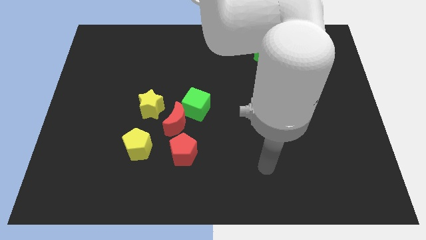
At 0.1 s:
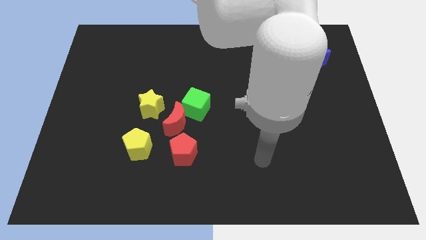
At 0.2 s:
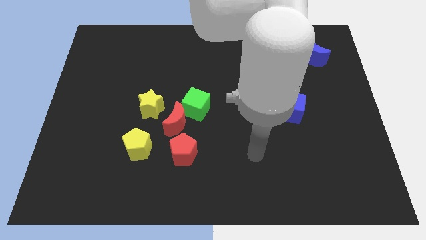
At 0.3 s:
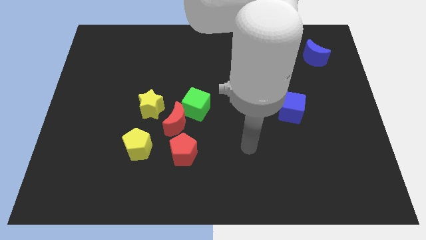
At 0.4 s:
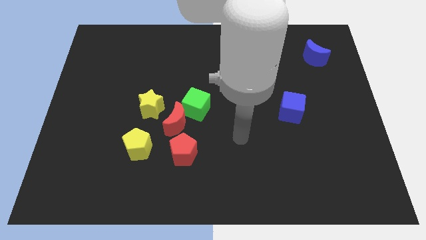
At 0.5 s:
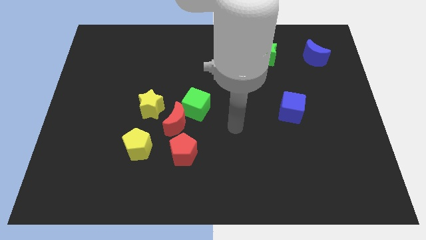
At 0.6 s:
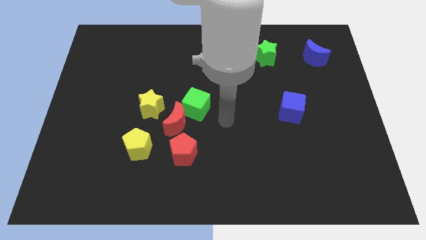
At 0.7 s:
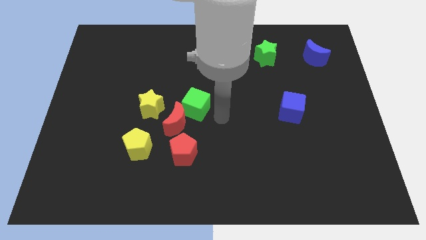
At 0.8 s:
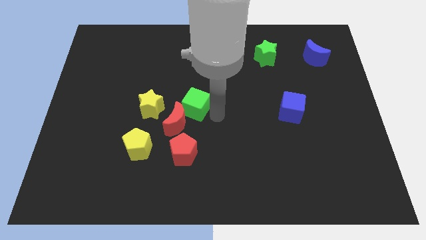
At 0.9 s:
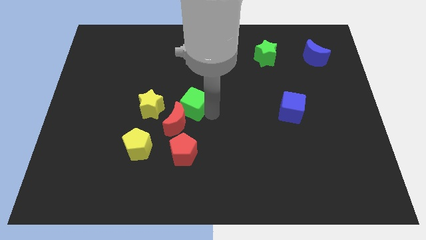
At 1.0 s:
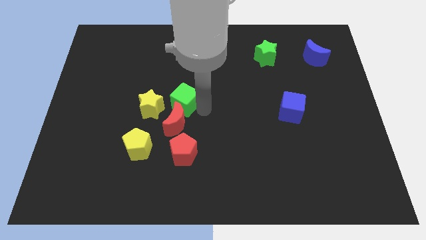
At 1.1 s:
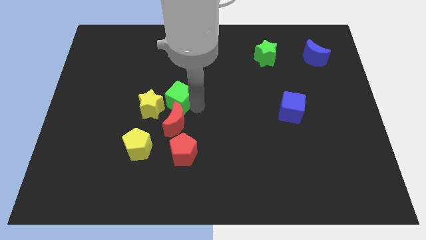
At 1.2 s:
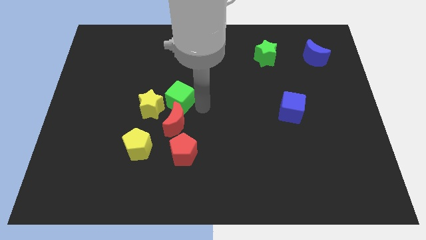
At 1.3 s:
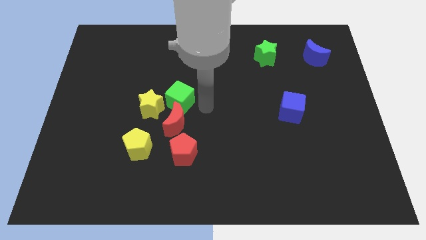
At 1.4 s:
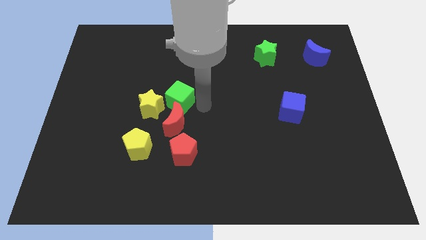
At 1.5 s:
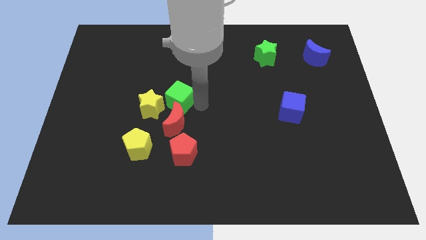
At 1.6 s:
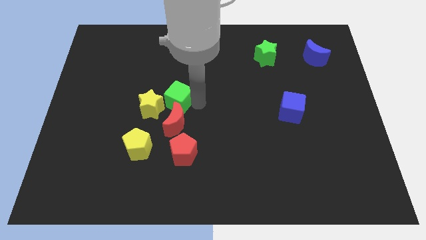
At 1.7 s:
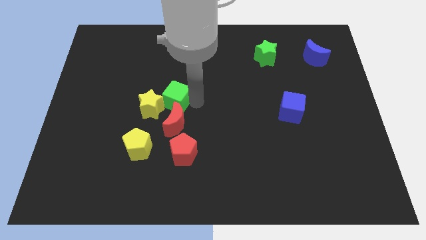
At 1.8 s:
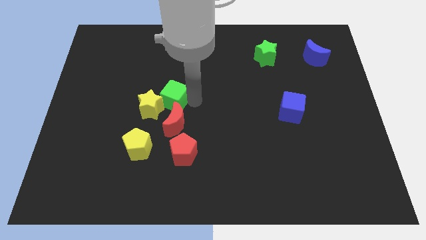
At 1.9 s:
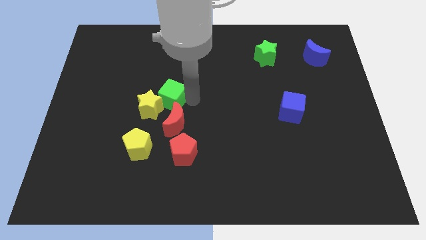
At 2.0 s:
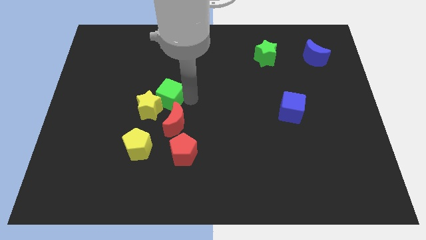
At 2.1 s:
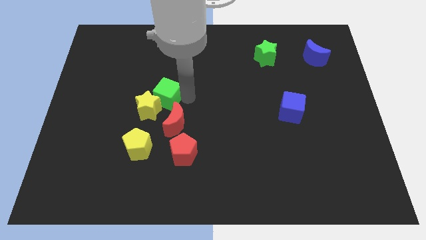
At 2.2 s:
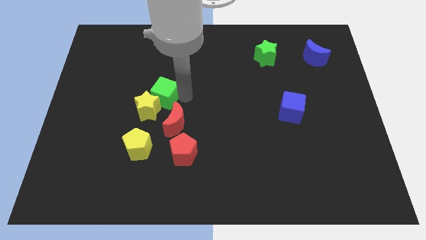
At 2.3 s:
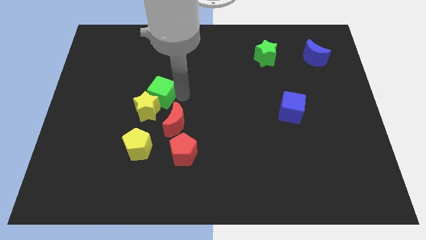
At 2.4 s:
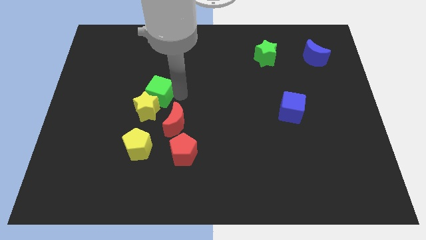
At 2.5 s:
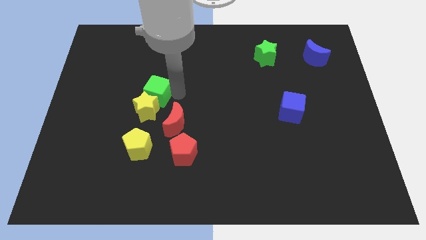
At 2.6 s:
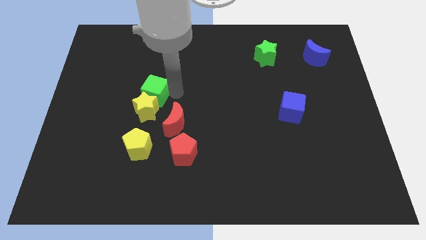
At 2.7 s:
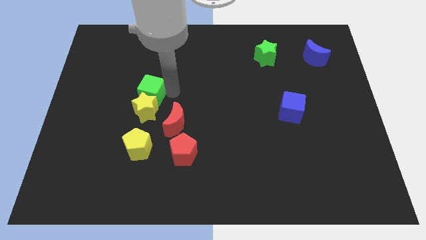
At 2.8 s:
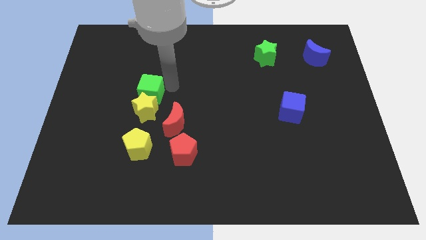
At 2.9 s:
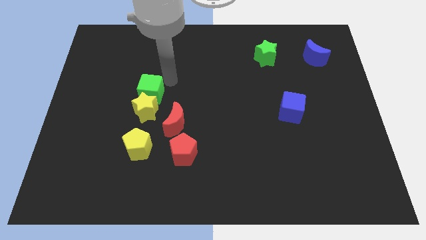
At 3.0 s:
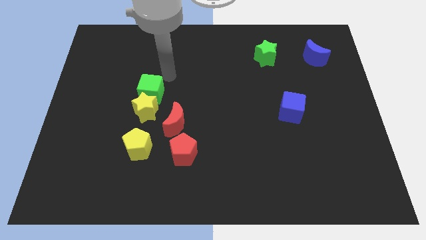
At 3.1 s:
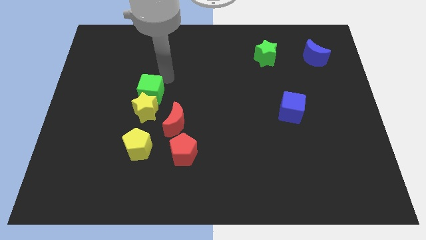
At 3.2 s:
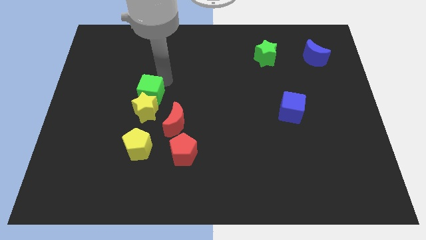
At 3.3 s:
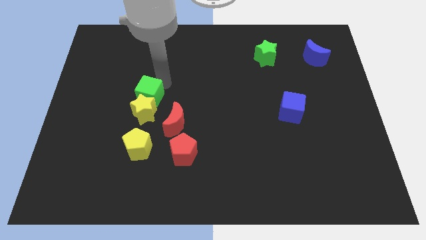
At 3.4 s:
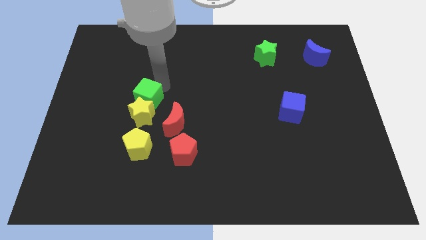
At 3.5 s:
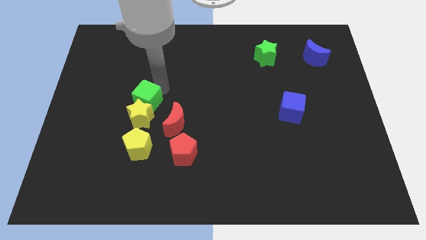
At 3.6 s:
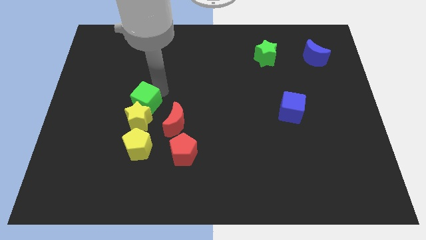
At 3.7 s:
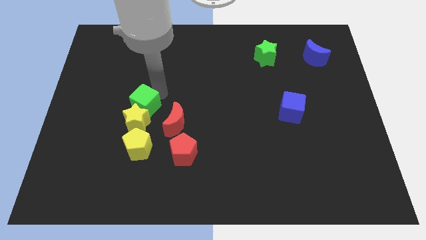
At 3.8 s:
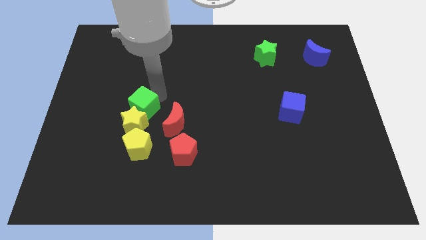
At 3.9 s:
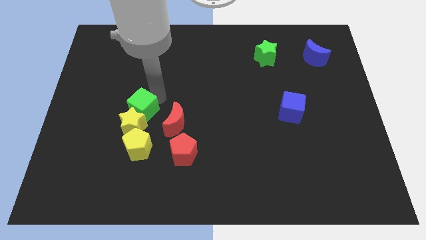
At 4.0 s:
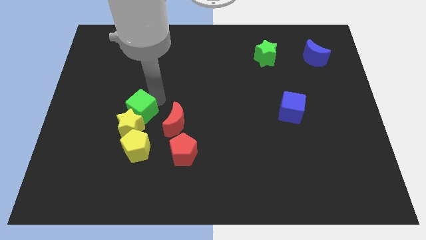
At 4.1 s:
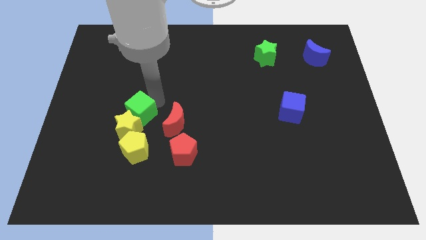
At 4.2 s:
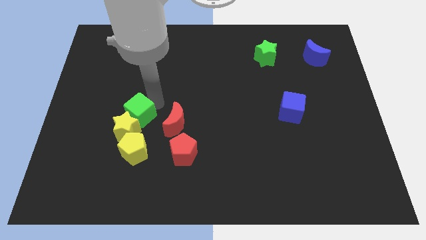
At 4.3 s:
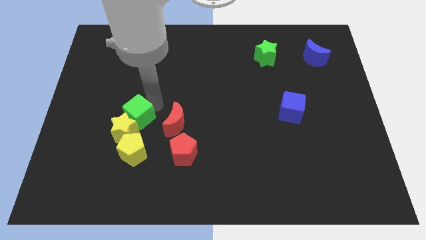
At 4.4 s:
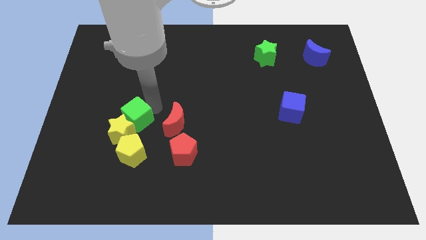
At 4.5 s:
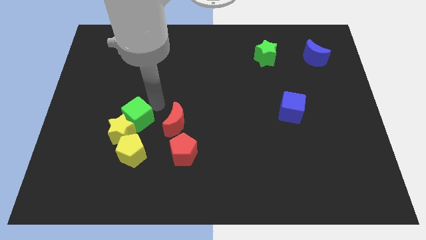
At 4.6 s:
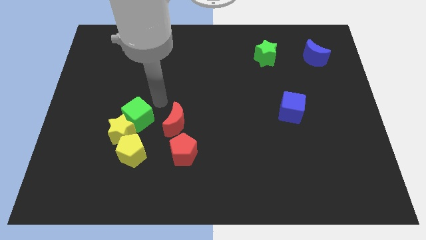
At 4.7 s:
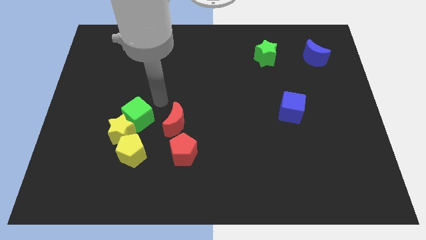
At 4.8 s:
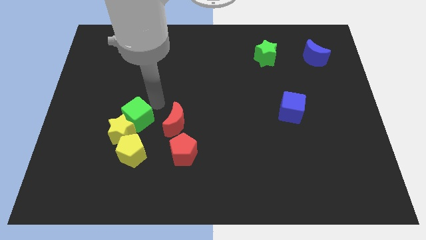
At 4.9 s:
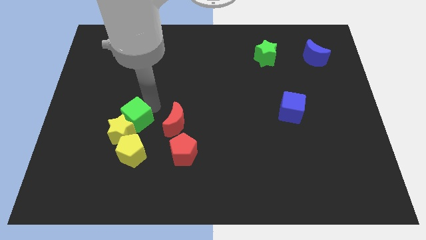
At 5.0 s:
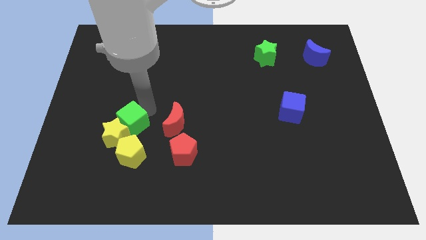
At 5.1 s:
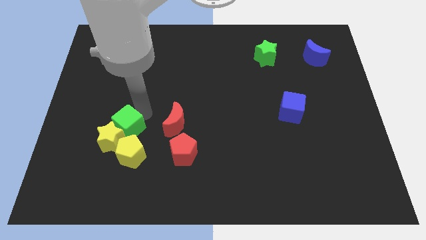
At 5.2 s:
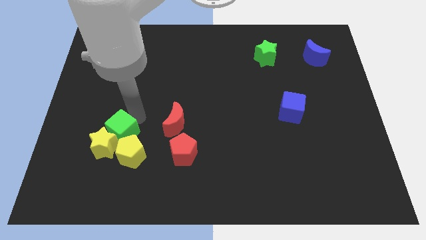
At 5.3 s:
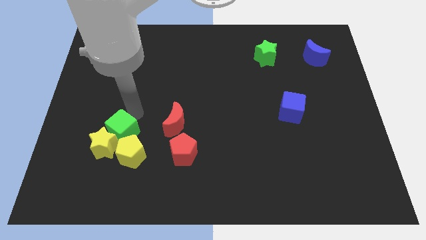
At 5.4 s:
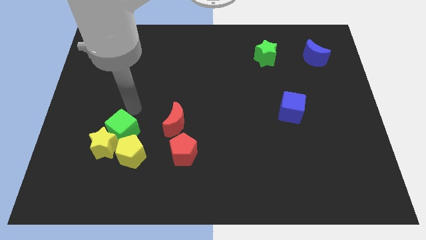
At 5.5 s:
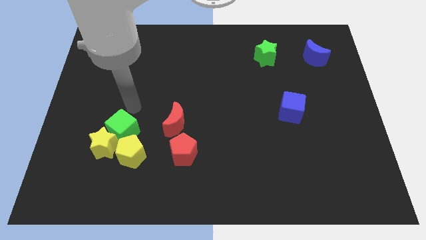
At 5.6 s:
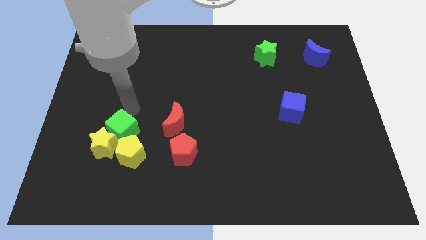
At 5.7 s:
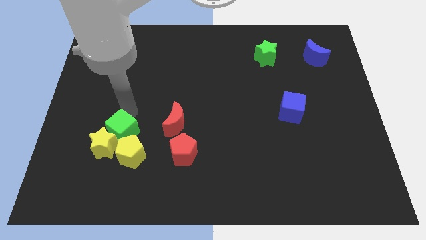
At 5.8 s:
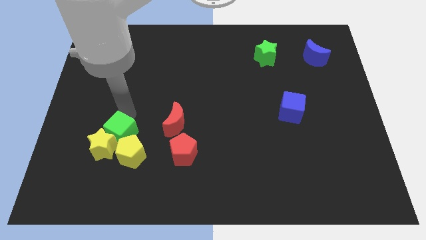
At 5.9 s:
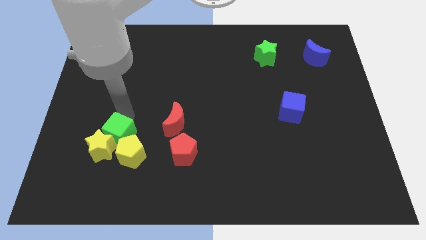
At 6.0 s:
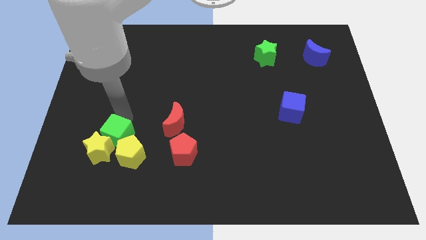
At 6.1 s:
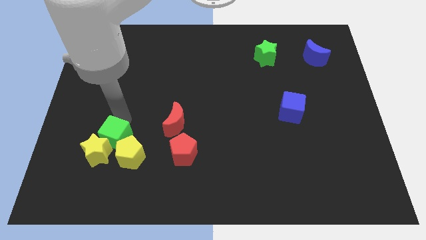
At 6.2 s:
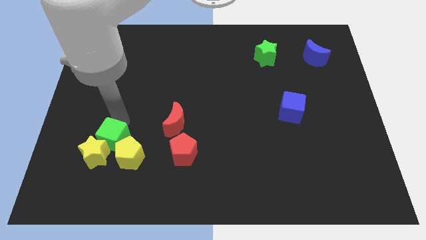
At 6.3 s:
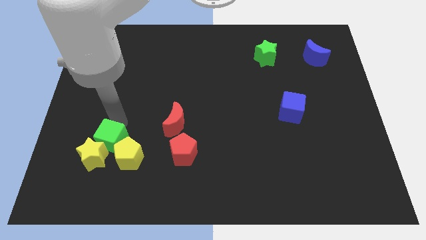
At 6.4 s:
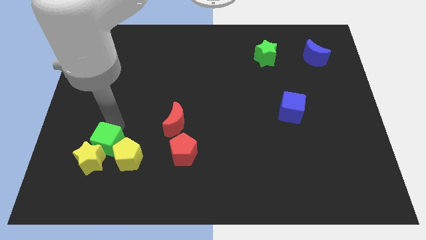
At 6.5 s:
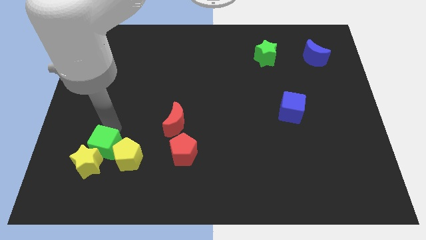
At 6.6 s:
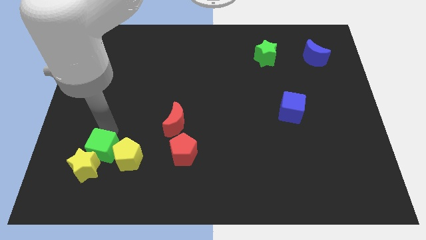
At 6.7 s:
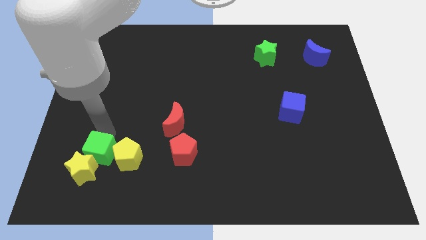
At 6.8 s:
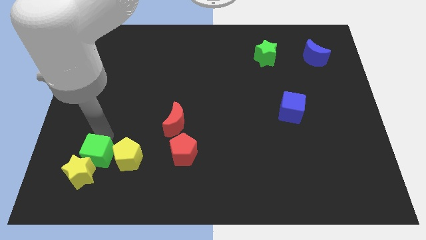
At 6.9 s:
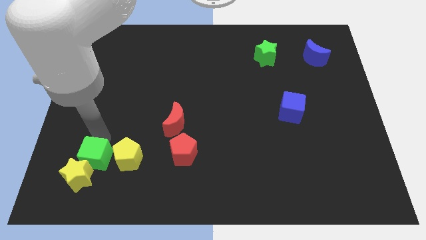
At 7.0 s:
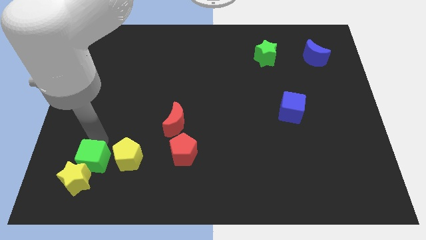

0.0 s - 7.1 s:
move the green cube diagonally down and to the left of the yellow pentagon

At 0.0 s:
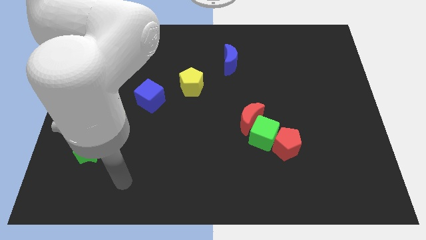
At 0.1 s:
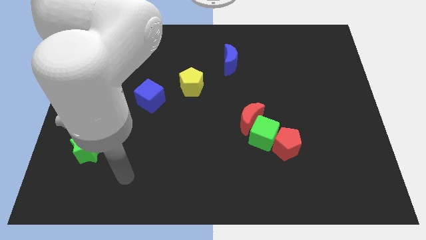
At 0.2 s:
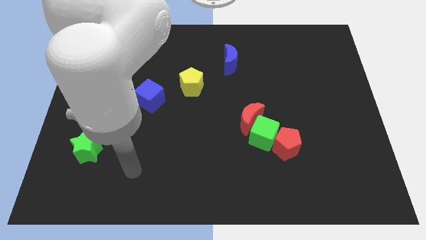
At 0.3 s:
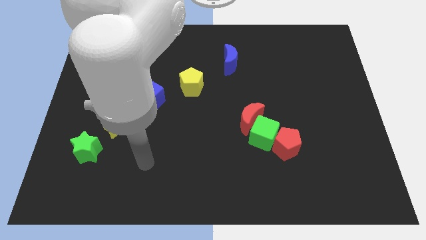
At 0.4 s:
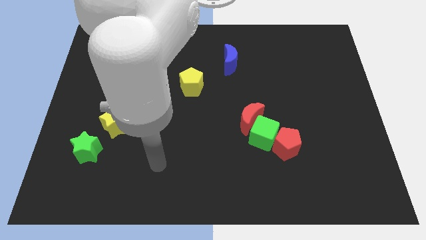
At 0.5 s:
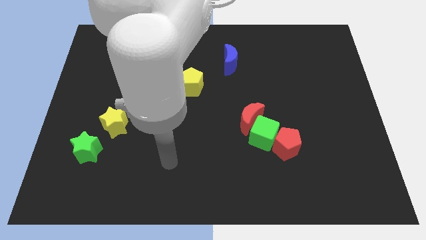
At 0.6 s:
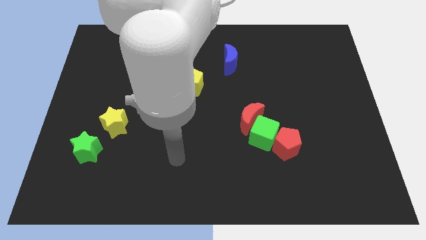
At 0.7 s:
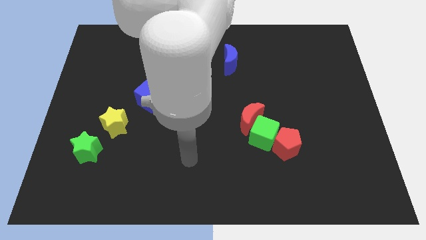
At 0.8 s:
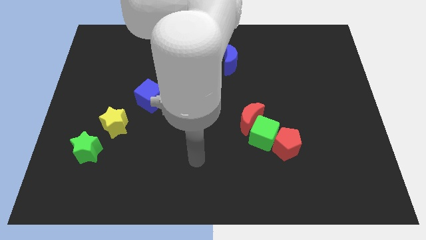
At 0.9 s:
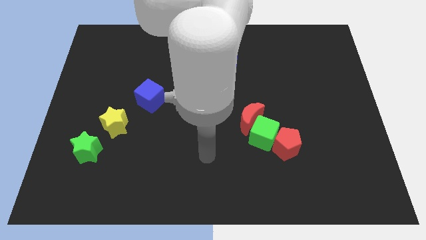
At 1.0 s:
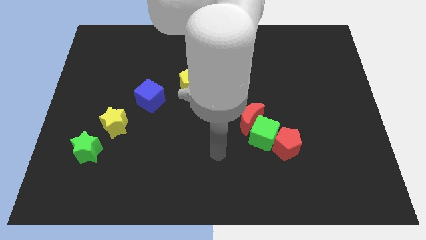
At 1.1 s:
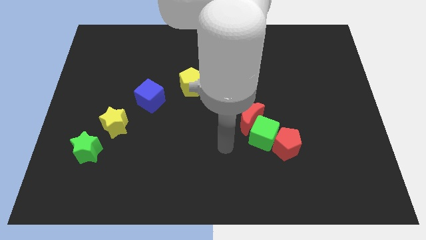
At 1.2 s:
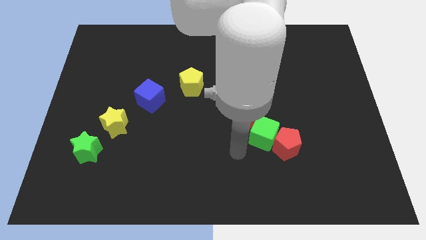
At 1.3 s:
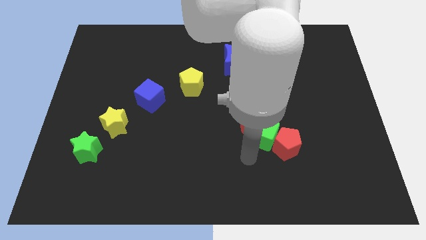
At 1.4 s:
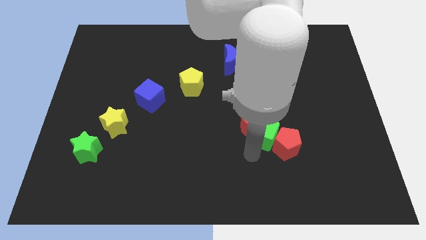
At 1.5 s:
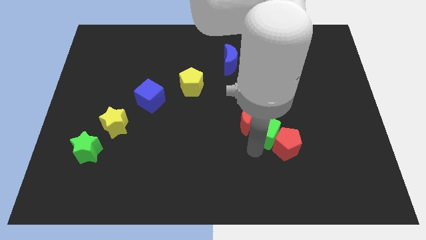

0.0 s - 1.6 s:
slide the green cube to the top side of the red pentagon
